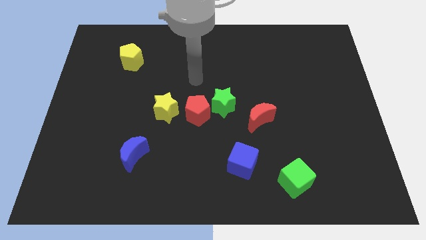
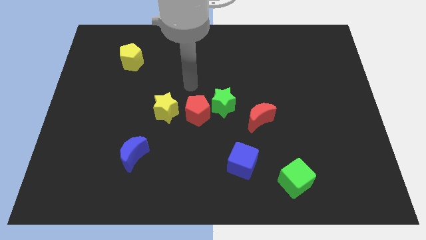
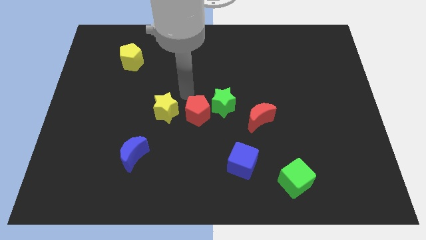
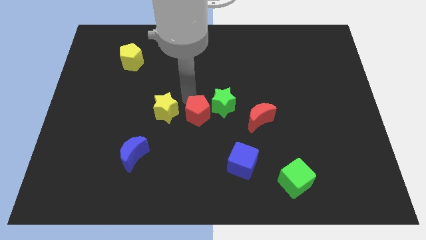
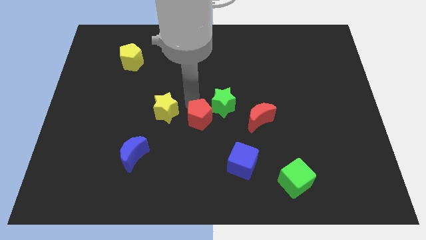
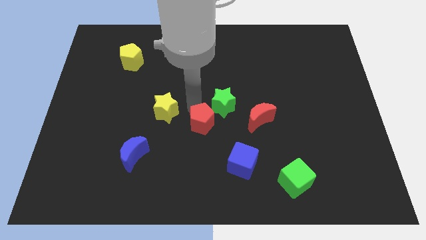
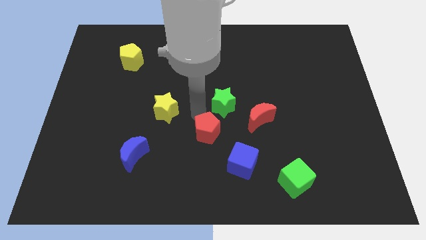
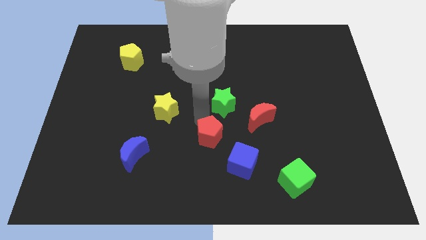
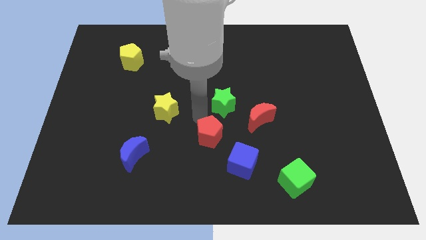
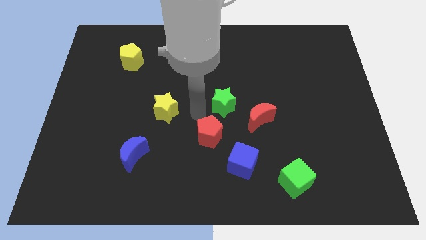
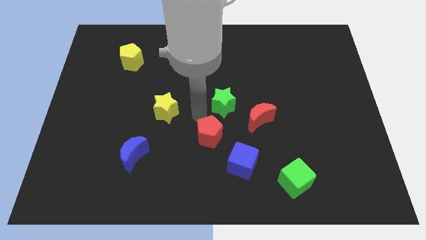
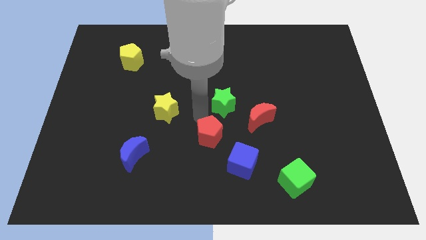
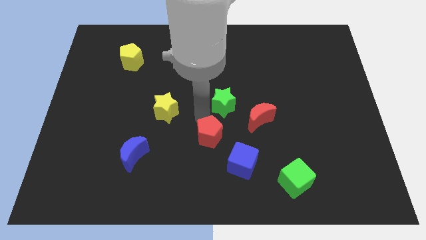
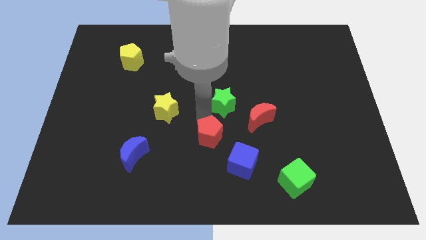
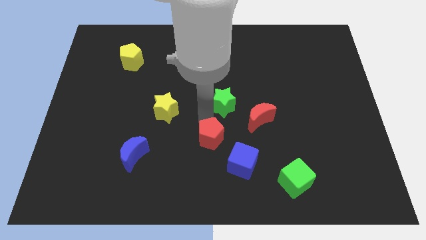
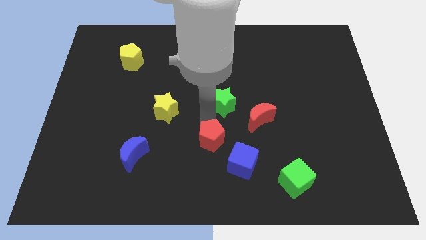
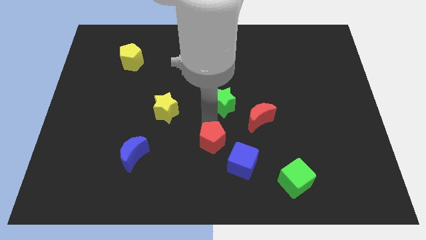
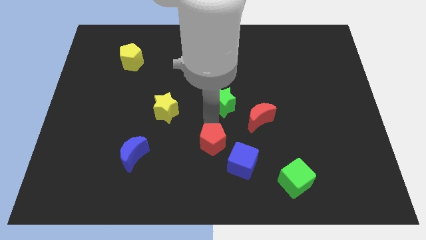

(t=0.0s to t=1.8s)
move the red pentagon away from the green star and yellow star

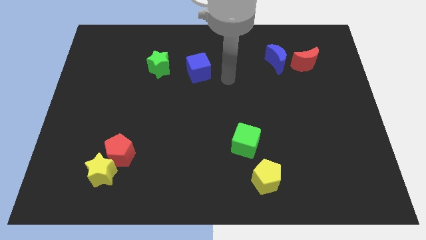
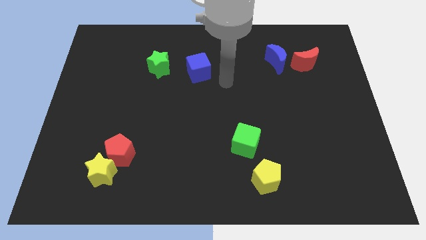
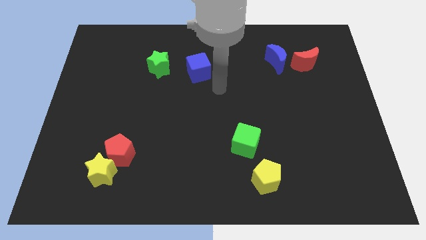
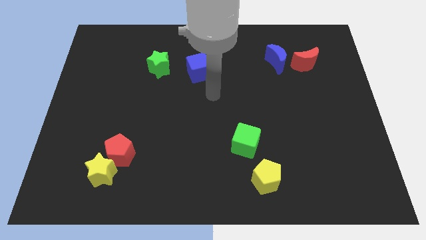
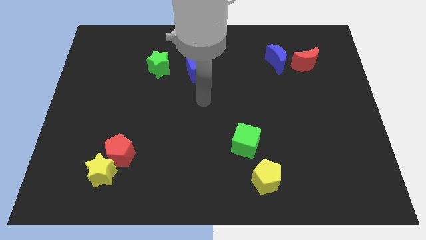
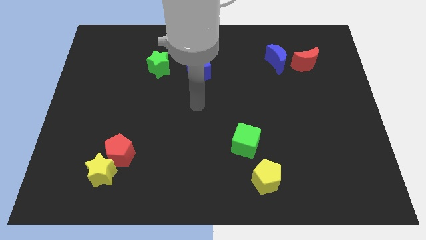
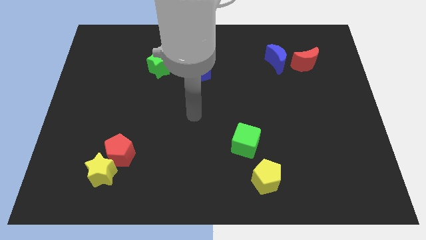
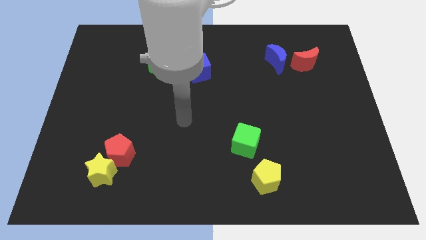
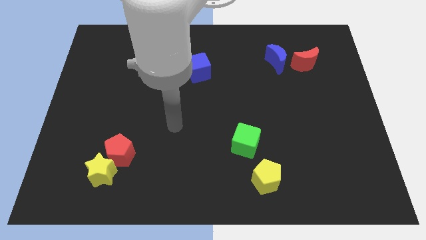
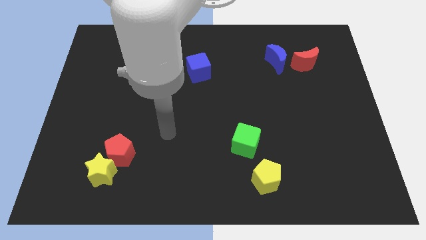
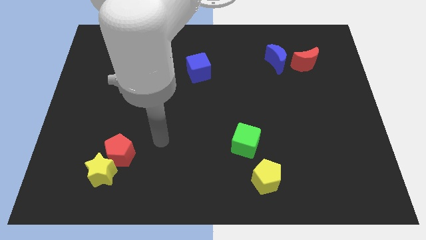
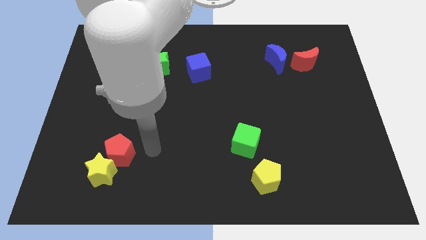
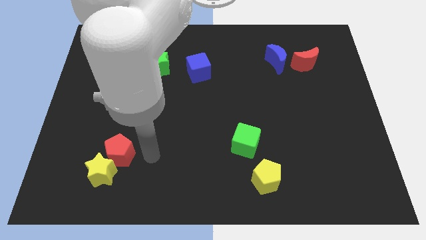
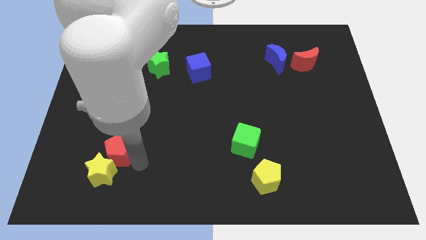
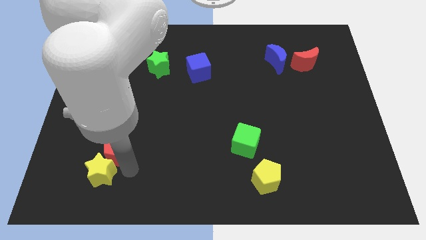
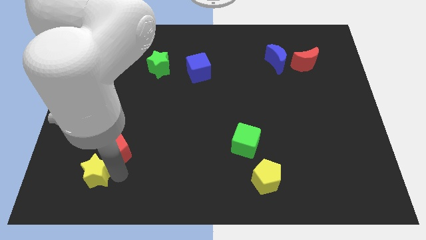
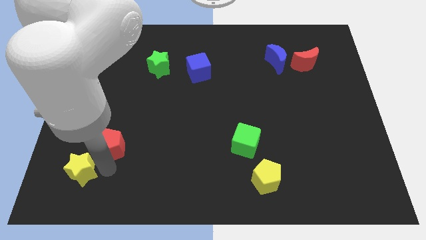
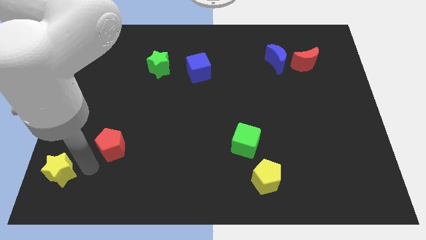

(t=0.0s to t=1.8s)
move the red pentagon away from the yellow star

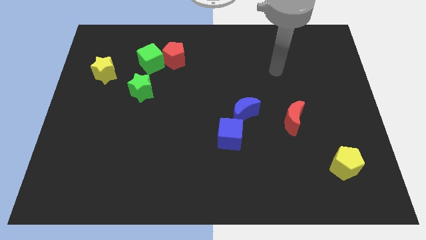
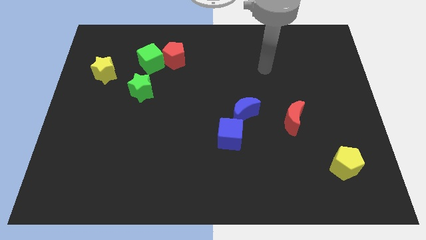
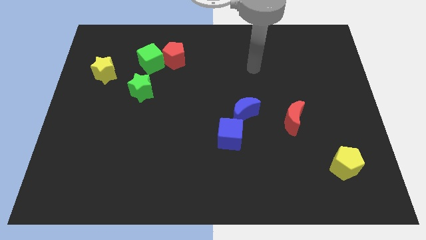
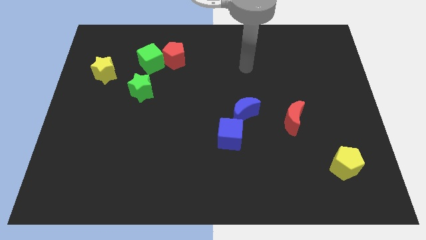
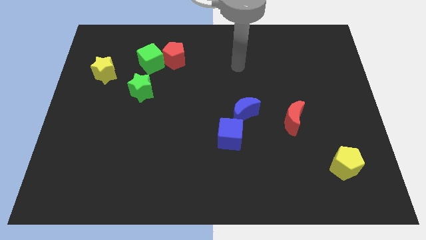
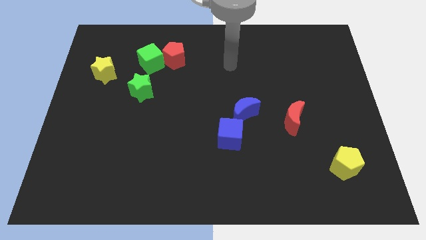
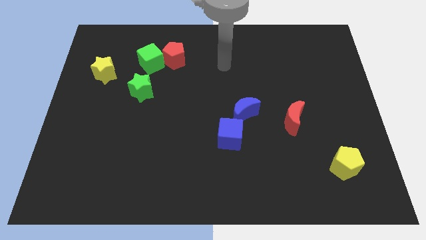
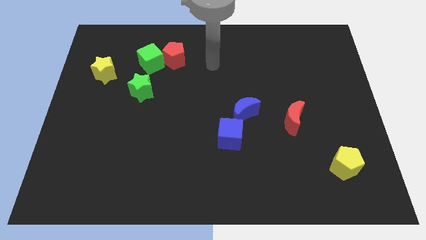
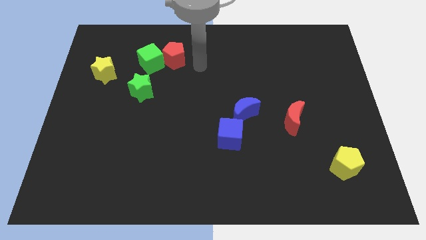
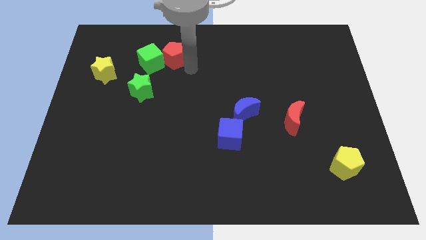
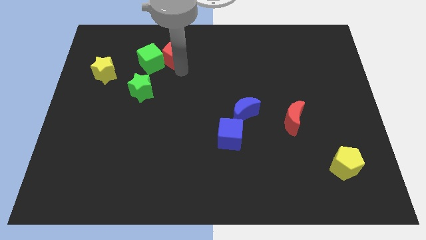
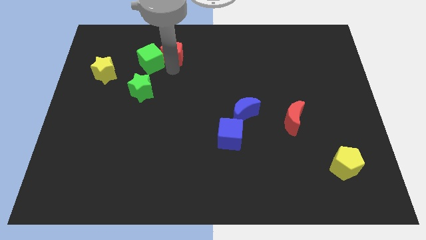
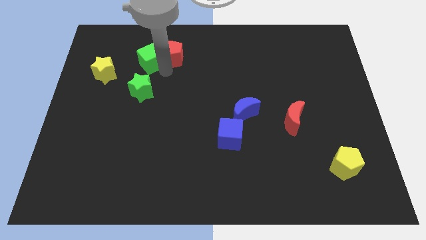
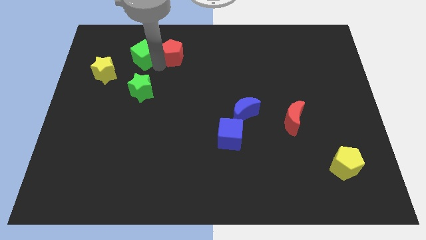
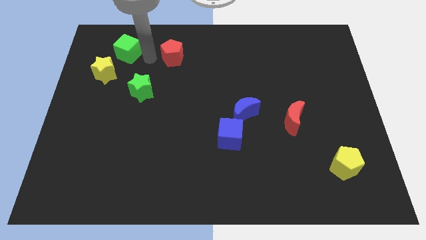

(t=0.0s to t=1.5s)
pull the red pentagon apart from the green cube

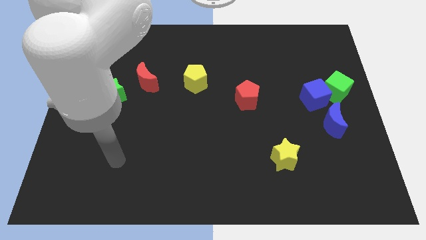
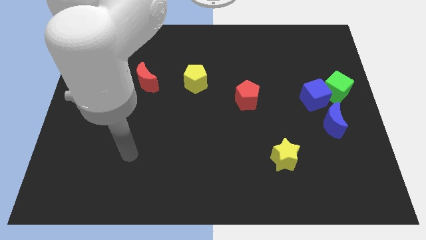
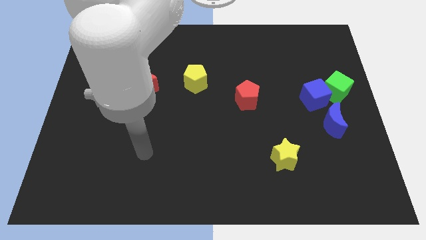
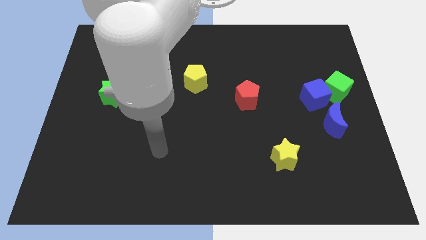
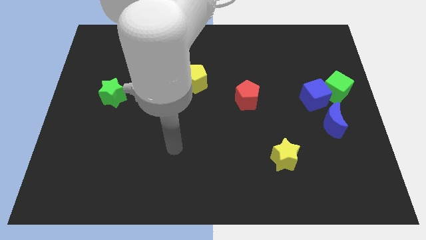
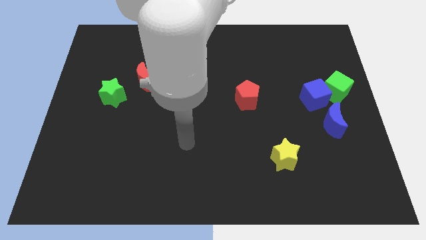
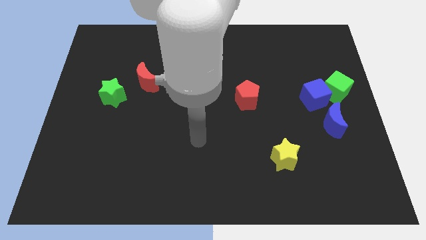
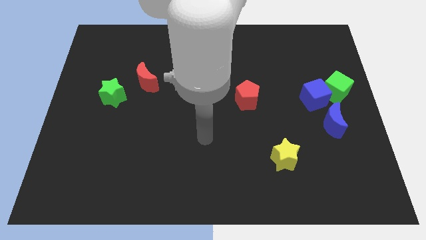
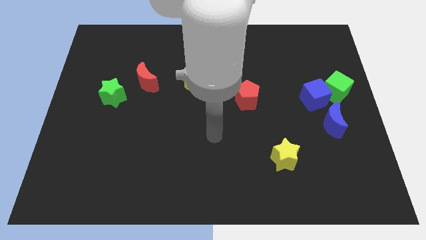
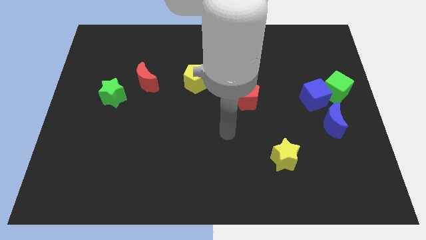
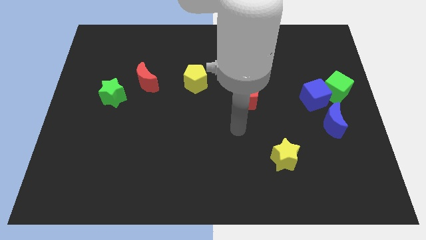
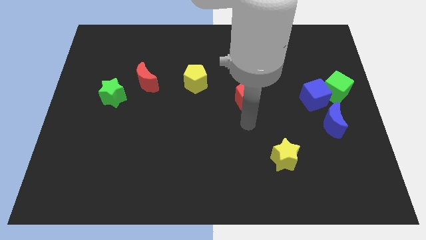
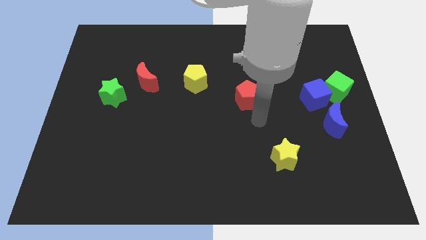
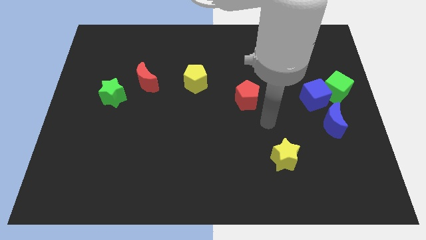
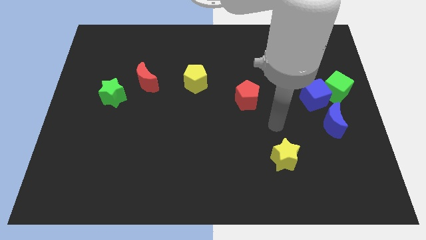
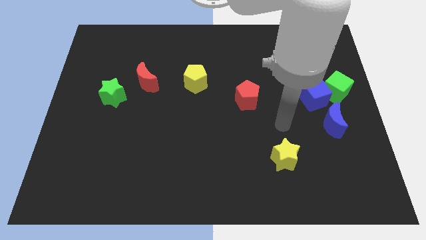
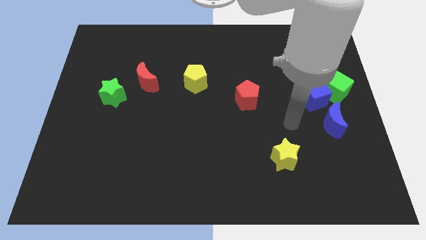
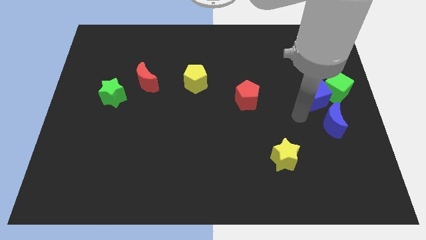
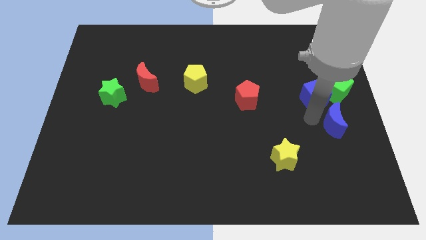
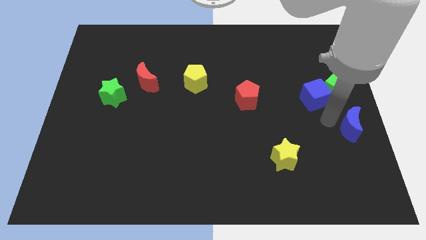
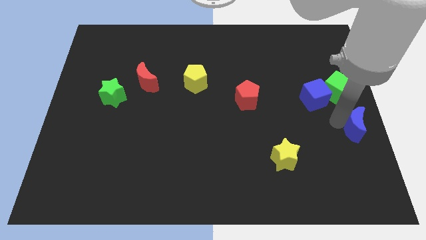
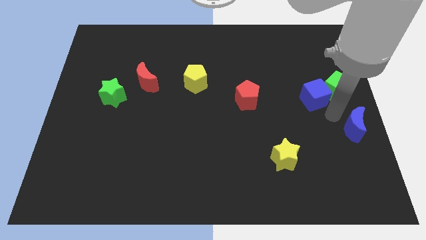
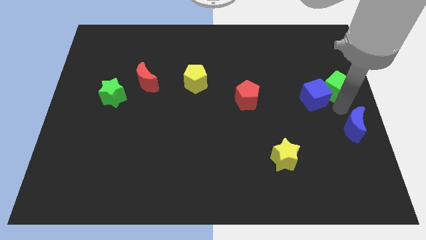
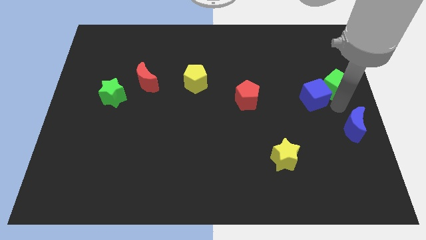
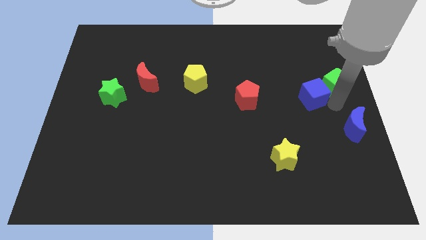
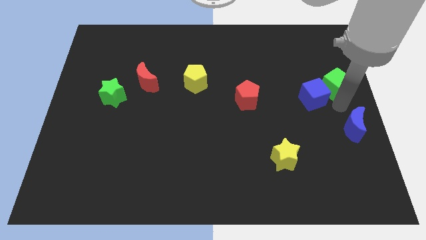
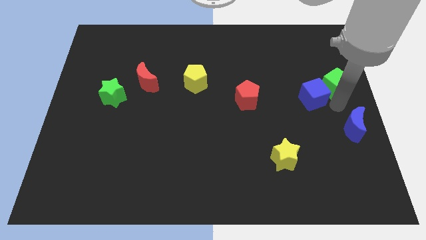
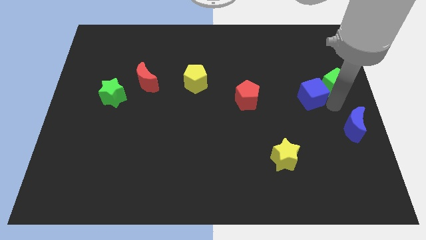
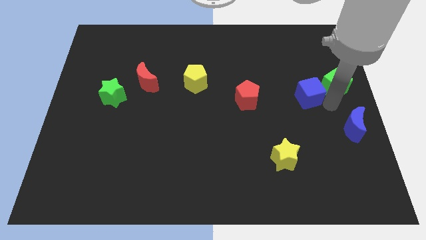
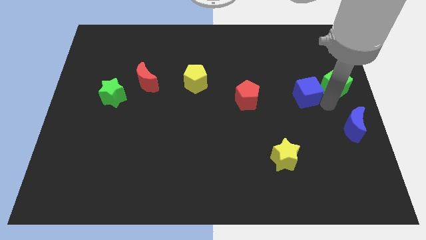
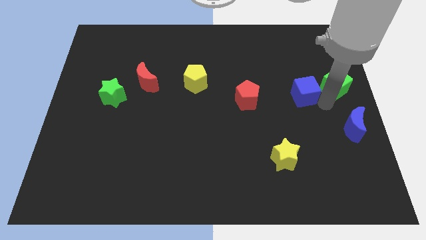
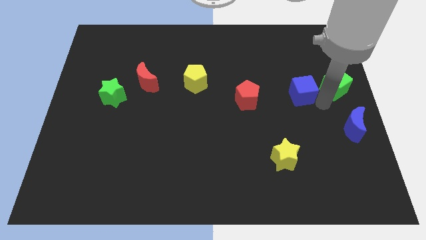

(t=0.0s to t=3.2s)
separate the blue cube from the green cube and blue moon

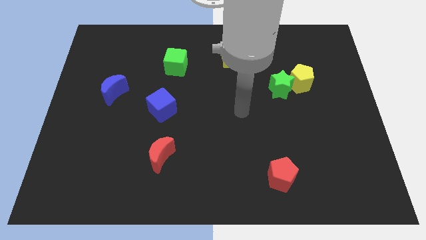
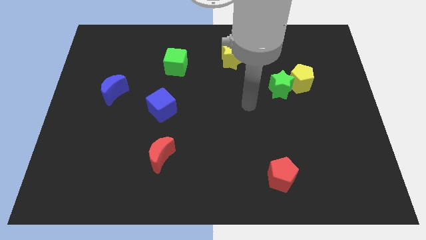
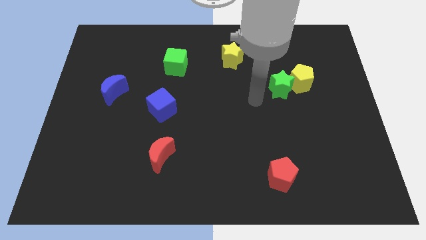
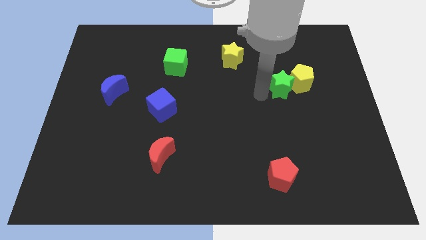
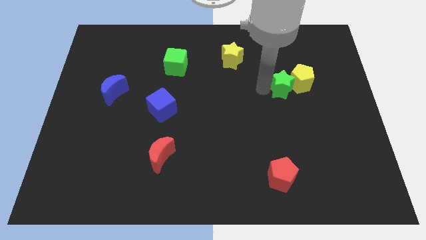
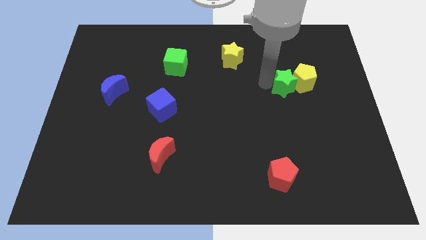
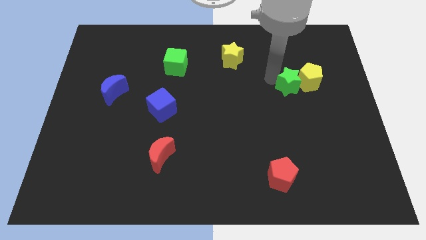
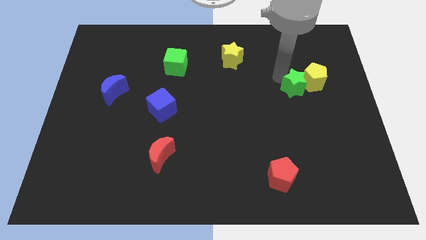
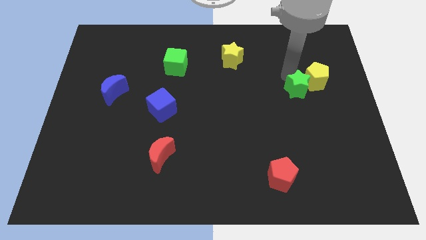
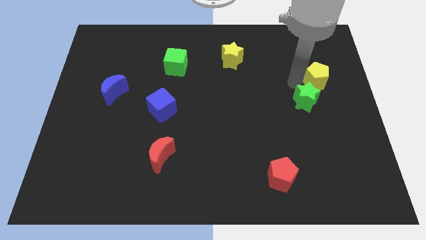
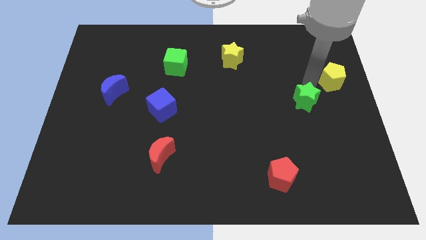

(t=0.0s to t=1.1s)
pull the green star apart from the yellow pentagon

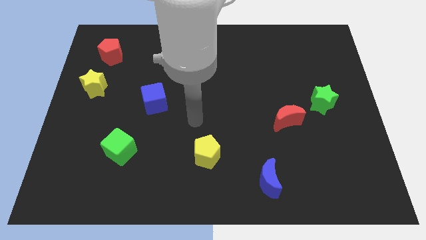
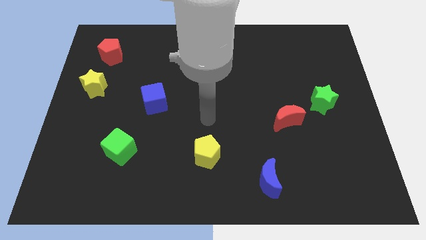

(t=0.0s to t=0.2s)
move the red moon away from the green star
